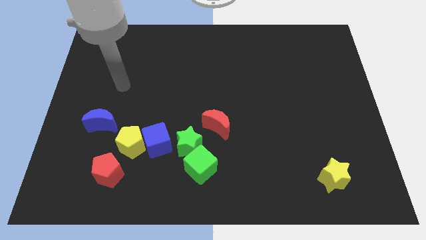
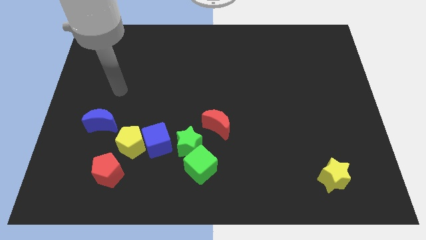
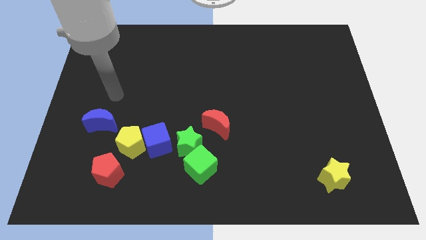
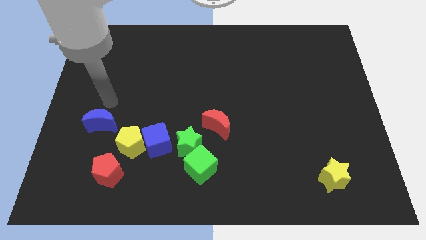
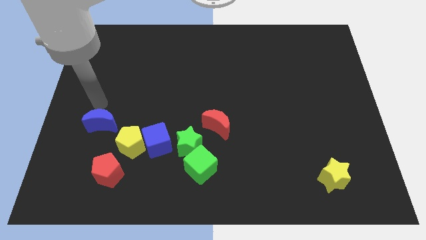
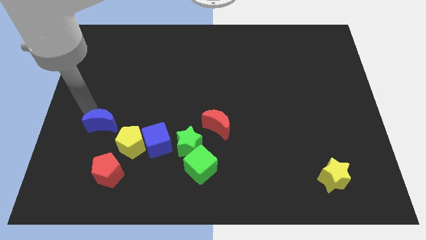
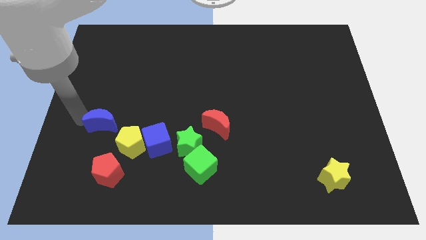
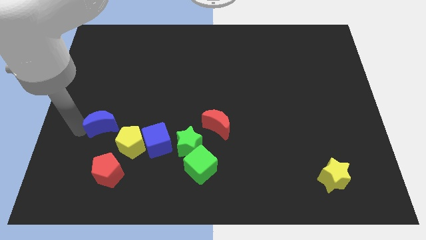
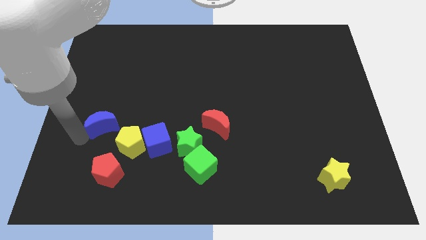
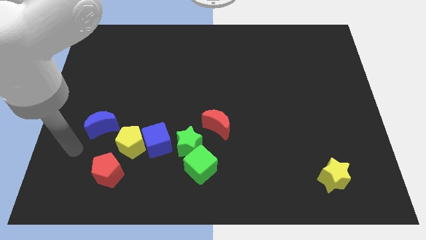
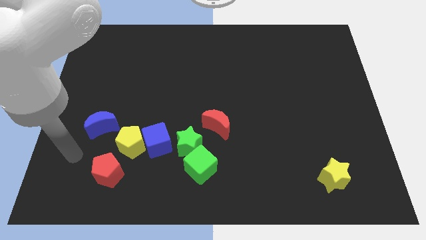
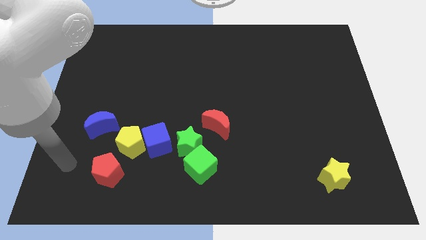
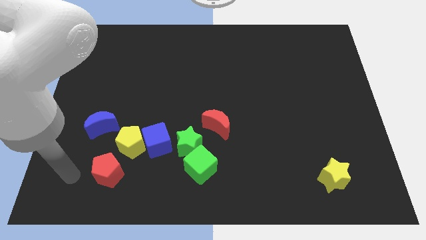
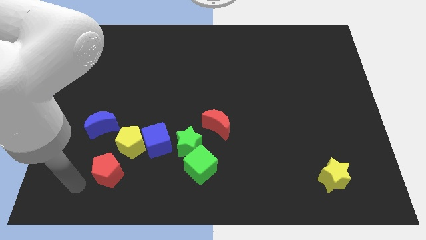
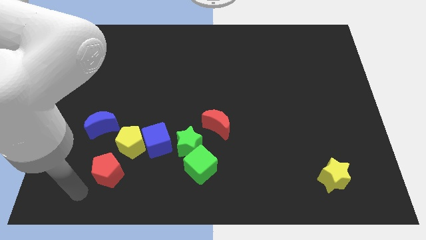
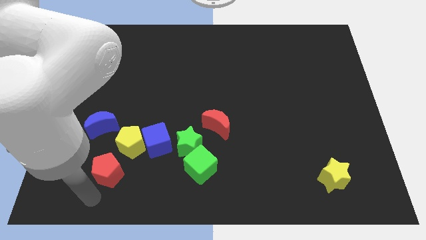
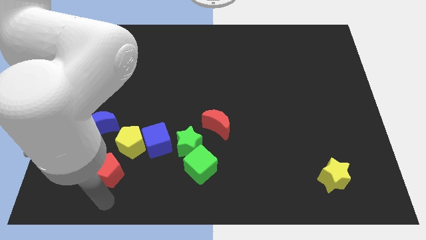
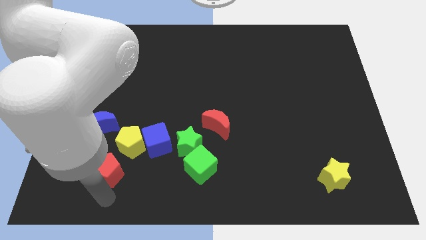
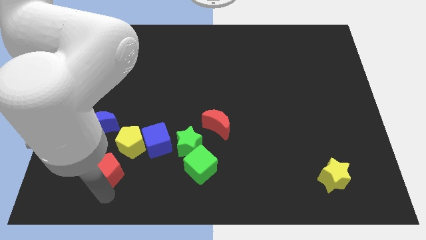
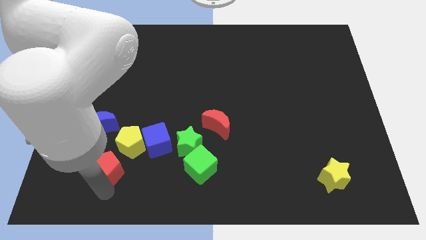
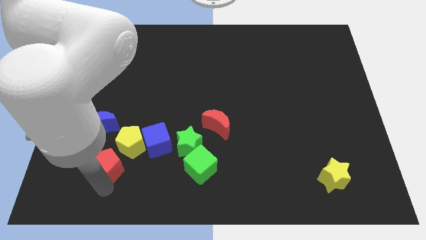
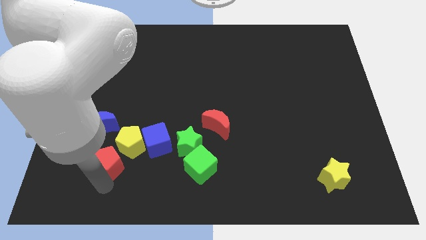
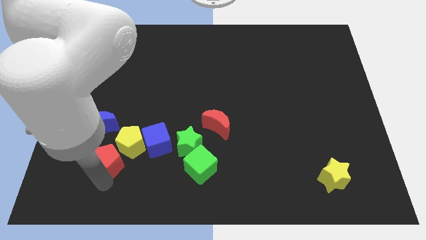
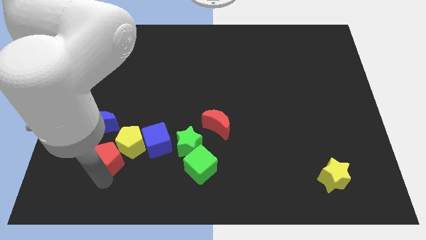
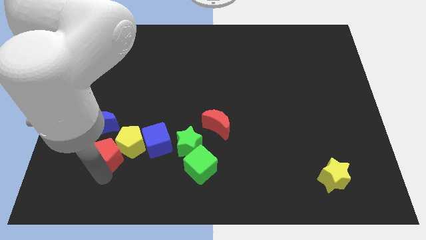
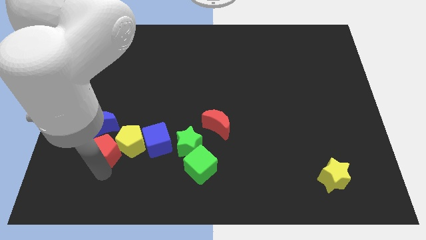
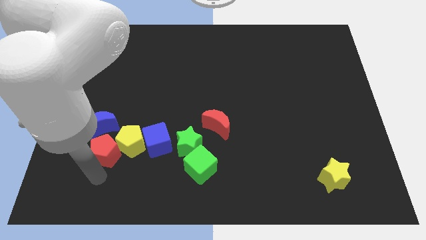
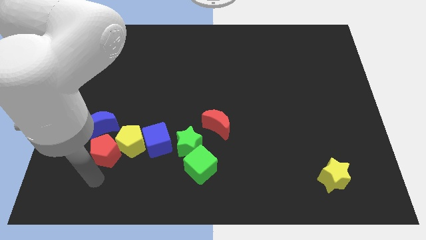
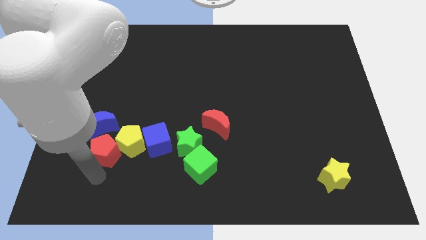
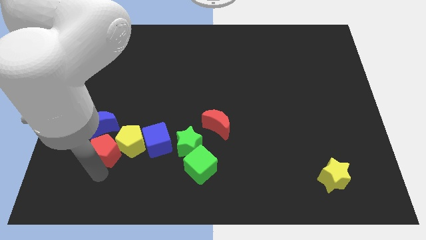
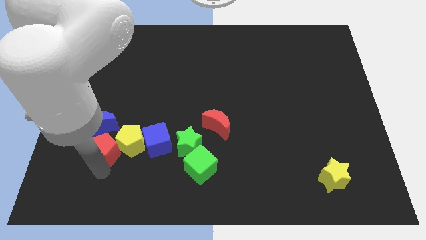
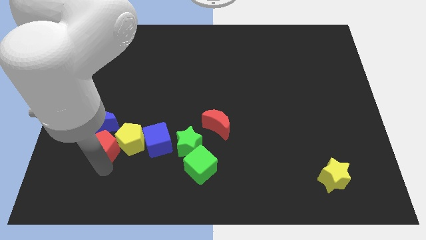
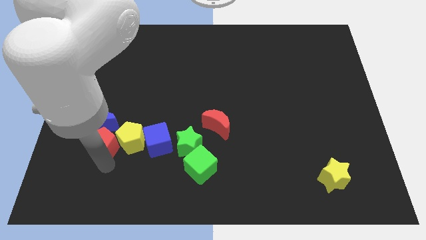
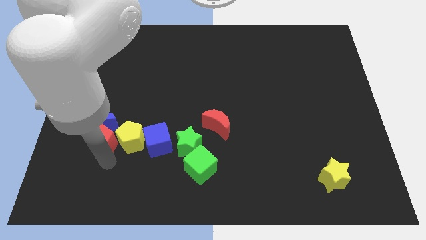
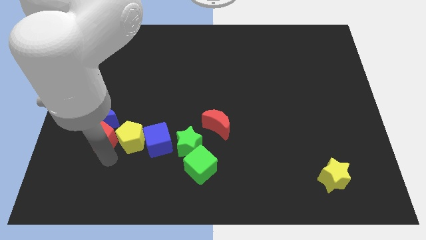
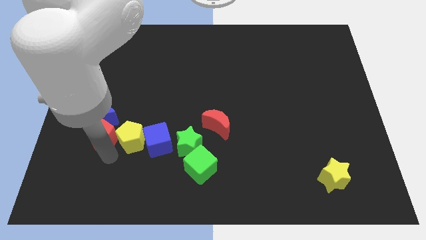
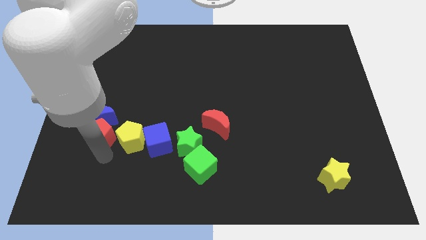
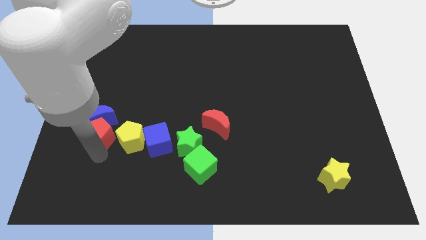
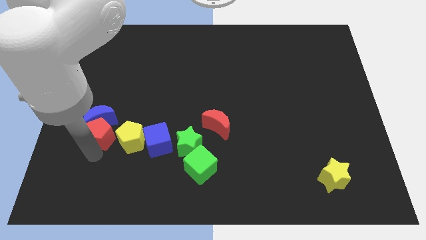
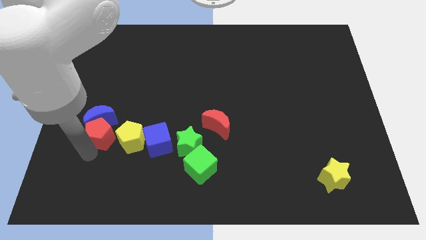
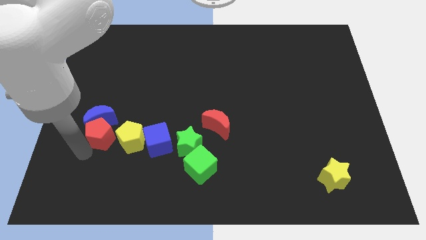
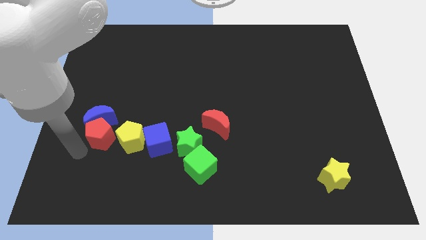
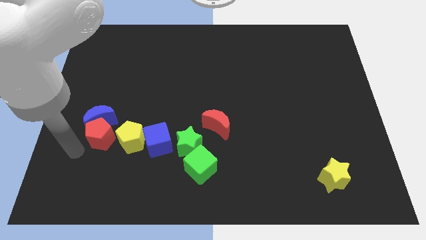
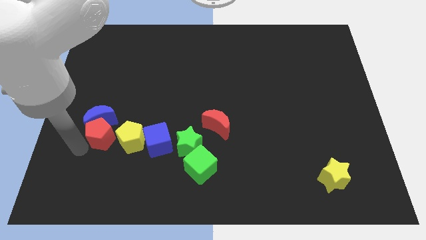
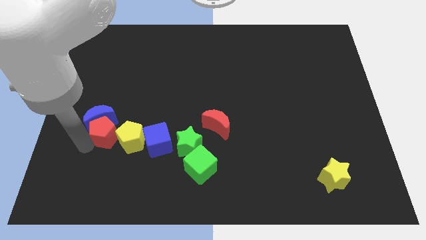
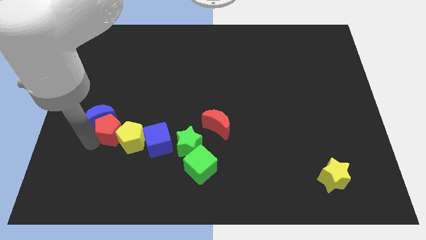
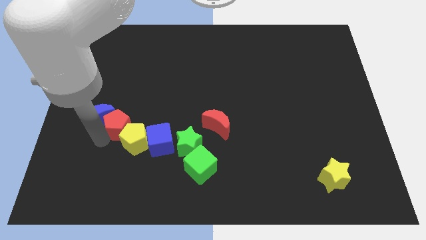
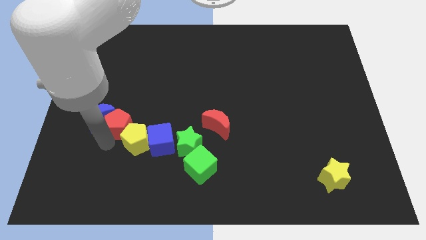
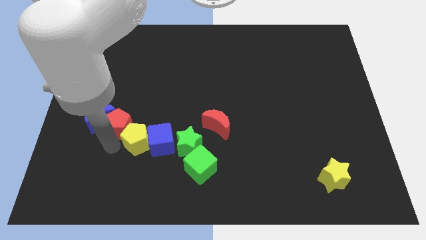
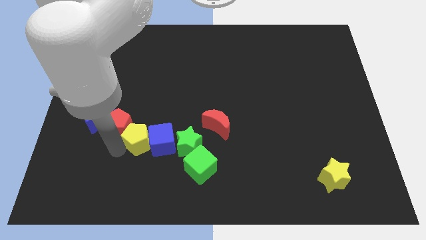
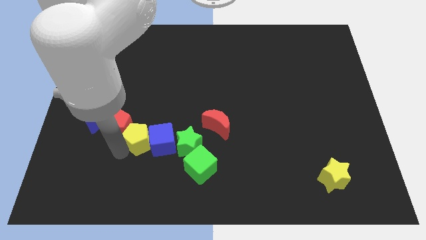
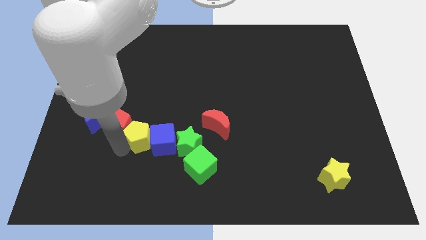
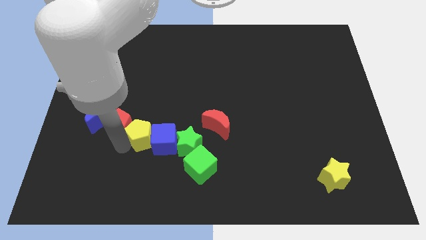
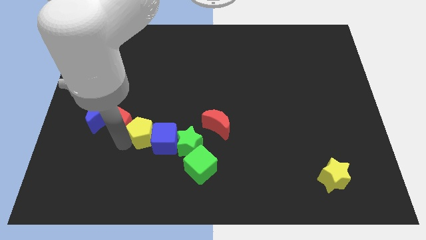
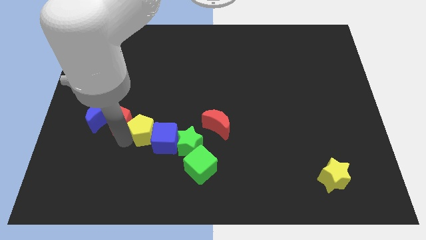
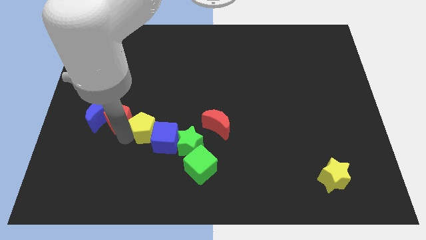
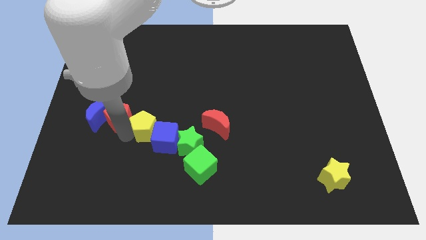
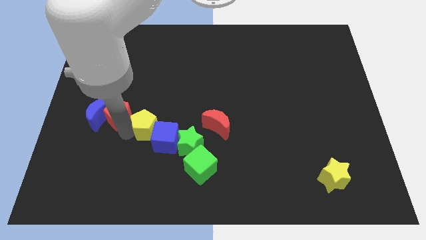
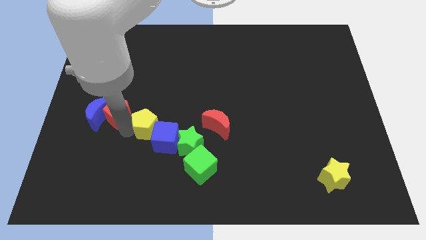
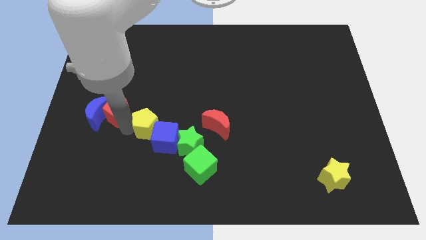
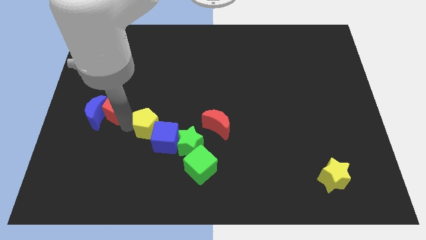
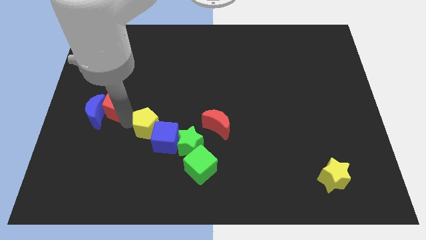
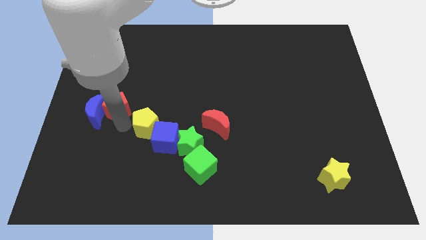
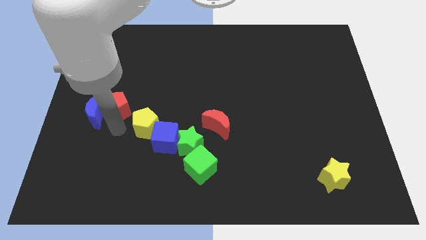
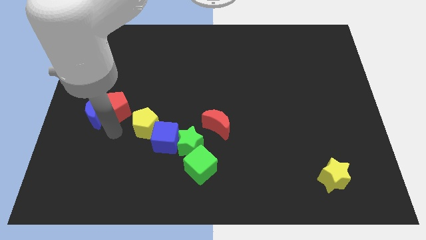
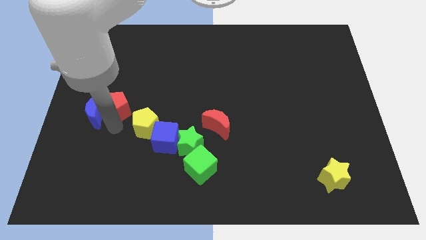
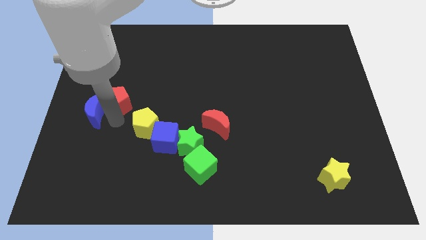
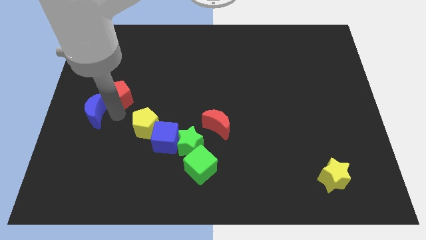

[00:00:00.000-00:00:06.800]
move the red pentagon up

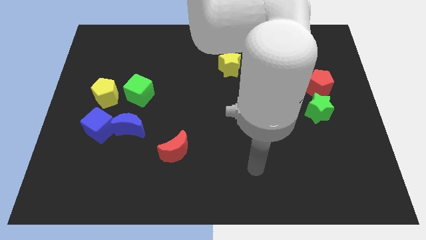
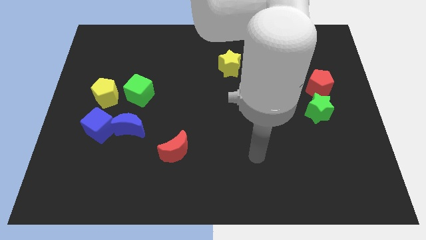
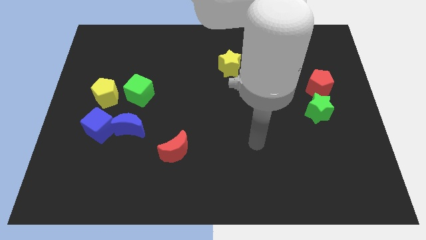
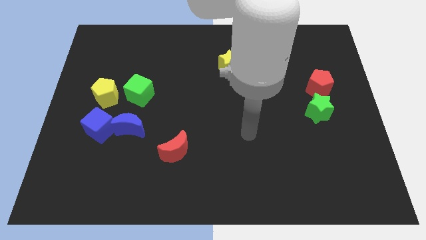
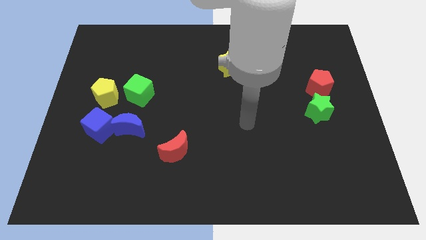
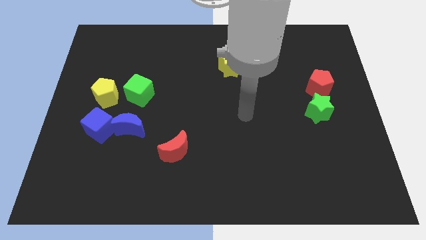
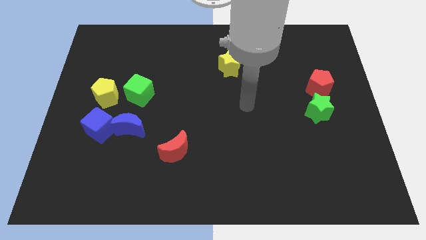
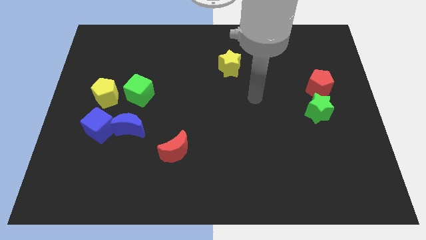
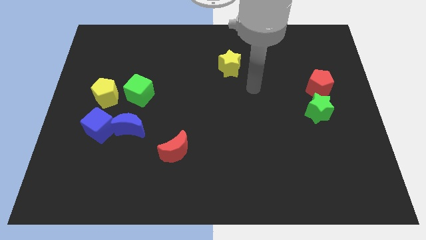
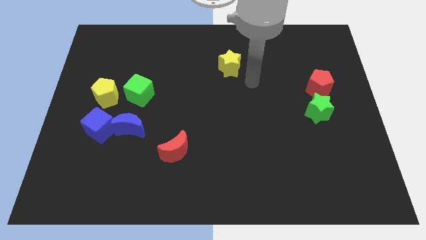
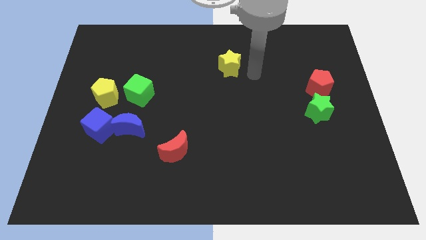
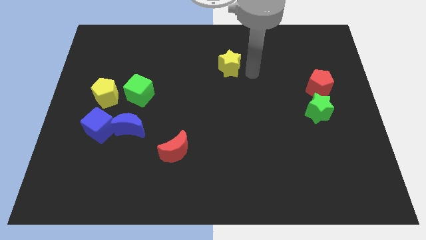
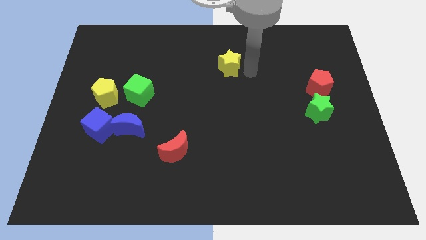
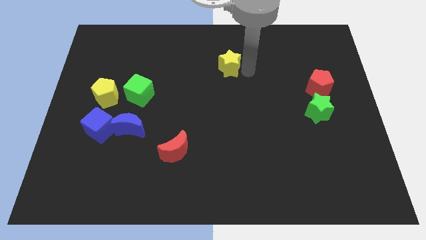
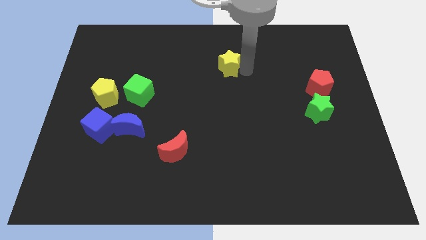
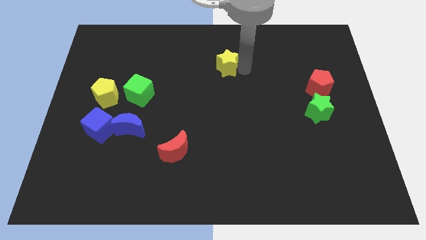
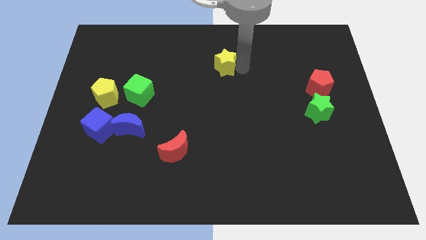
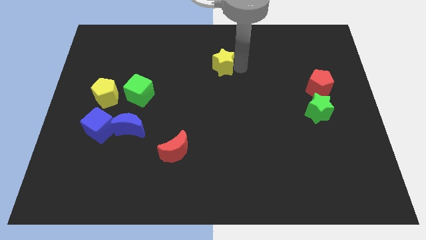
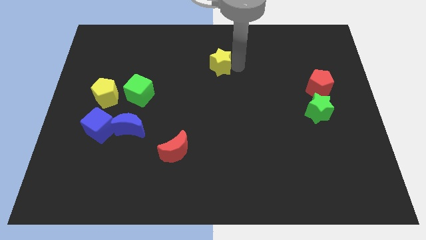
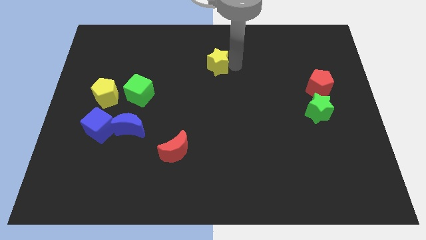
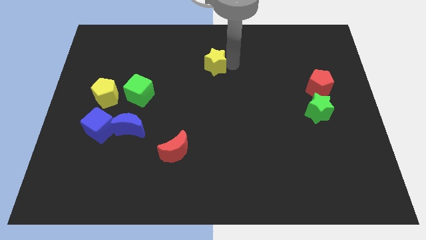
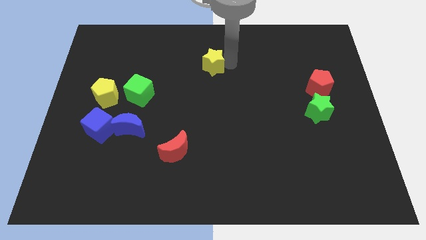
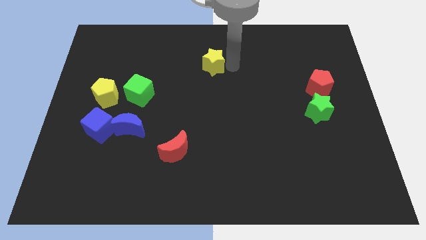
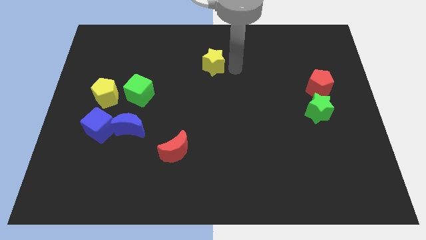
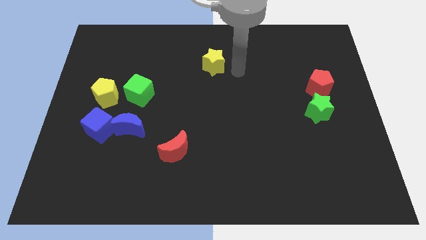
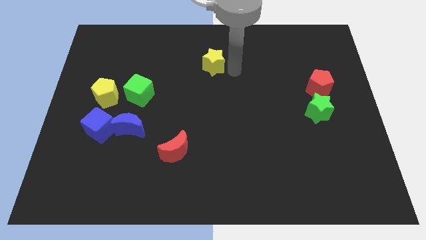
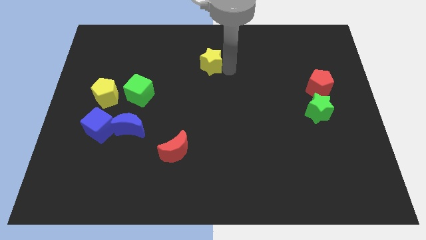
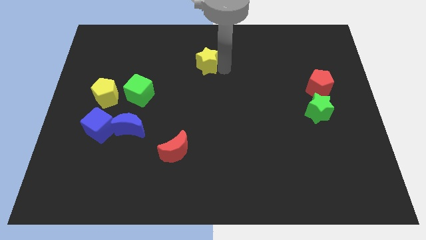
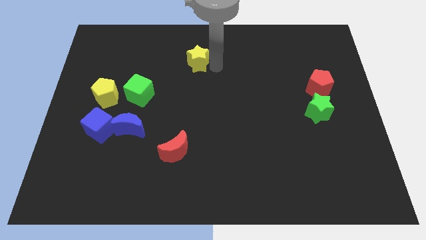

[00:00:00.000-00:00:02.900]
slightly push the yellow star left
